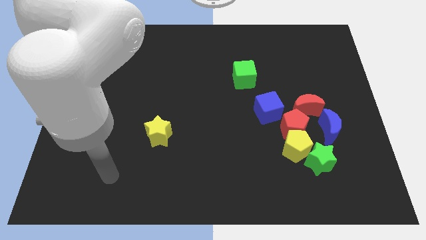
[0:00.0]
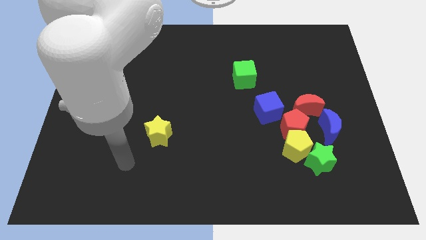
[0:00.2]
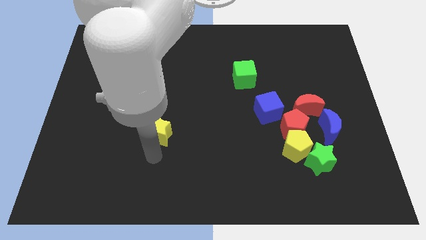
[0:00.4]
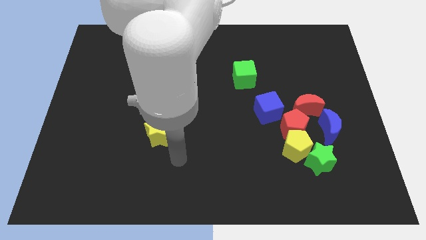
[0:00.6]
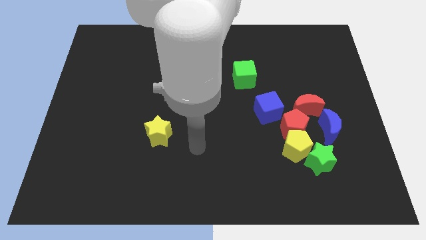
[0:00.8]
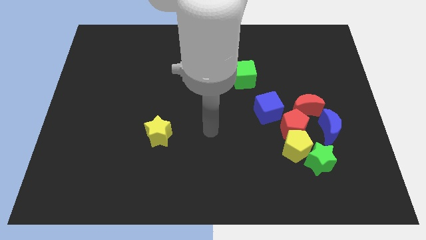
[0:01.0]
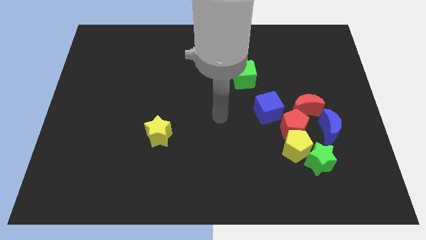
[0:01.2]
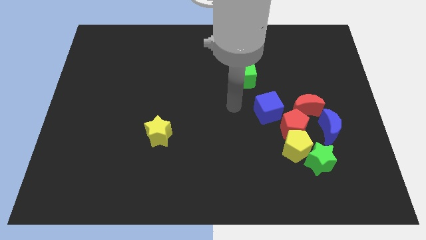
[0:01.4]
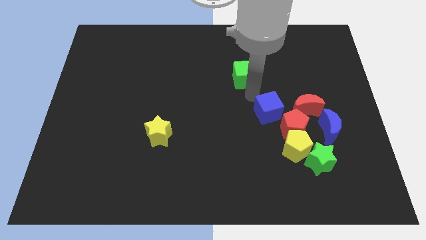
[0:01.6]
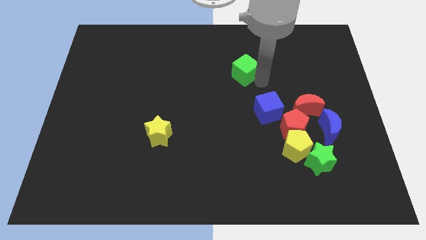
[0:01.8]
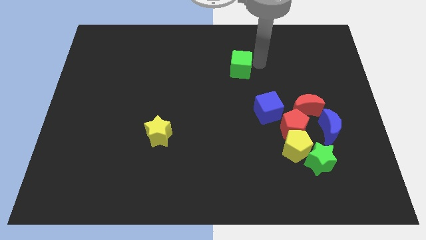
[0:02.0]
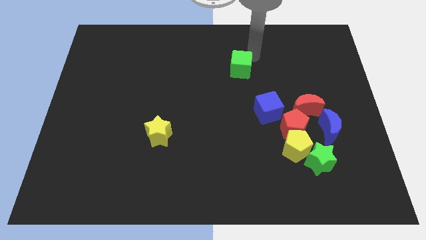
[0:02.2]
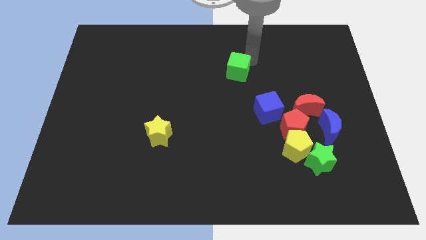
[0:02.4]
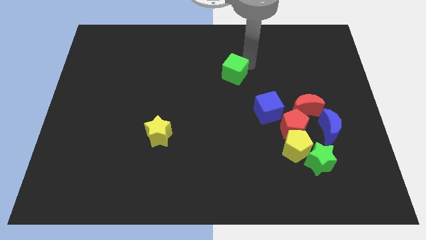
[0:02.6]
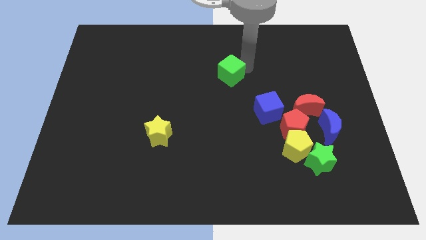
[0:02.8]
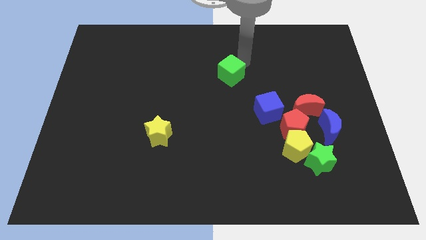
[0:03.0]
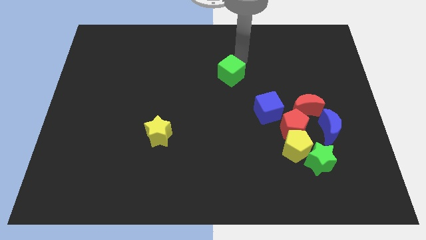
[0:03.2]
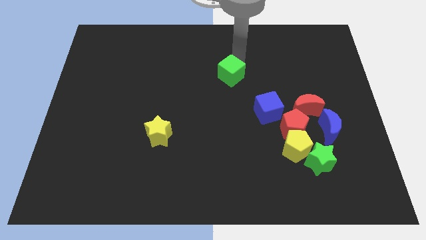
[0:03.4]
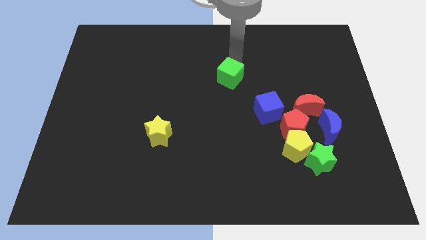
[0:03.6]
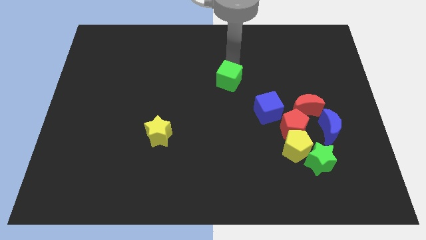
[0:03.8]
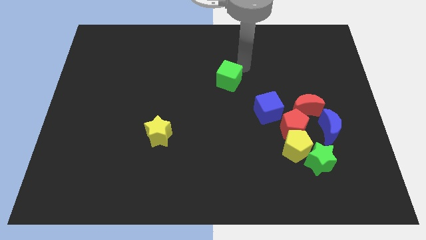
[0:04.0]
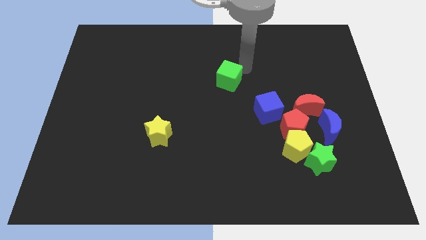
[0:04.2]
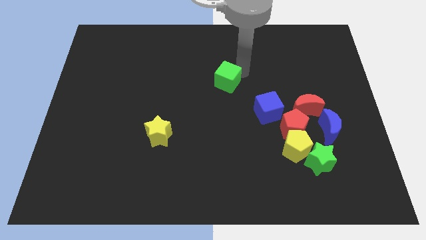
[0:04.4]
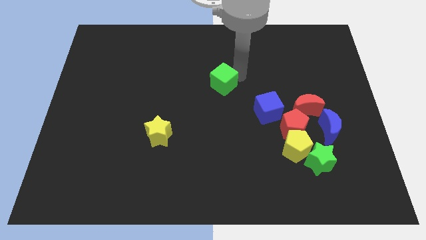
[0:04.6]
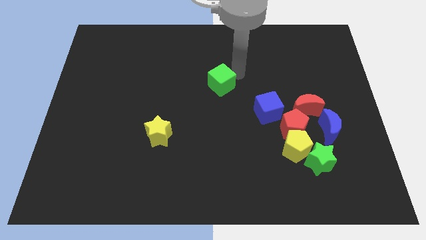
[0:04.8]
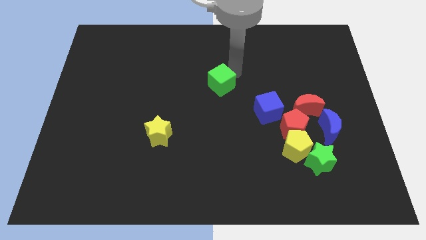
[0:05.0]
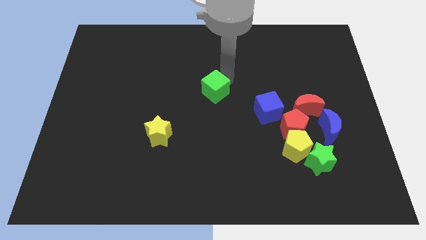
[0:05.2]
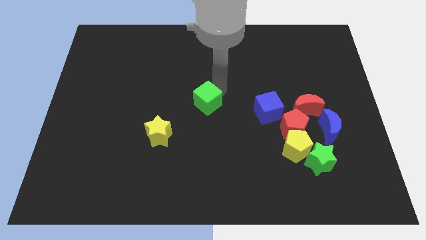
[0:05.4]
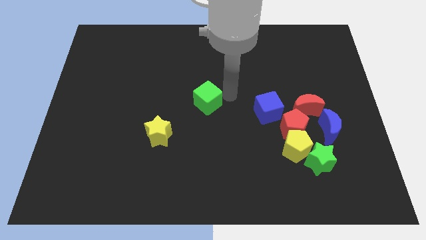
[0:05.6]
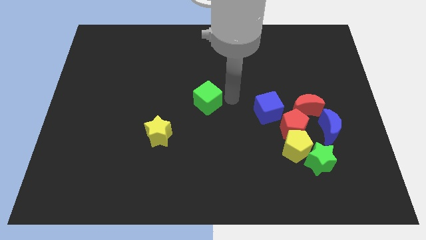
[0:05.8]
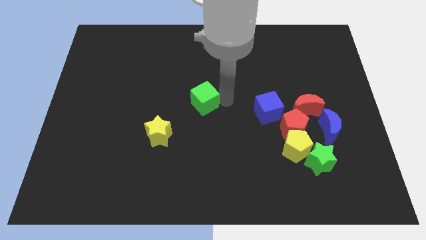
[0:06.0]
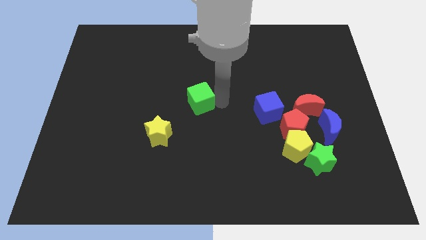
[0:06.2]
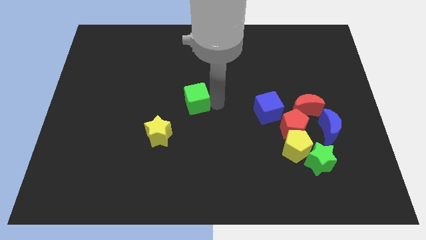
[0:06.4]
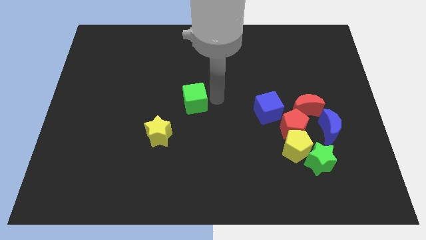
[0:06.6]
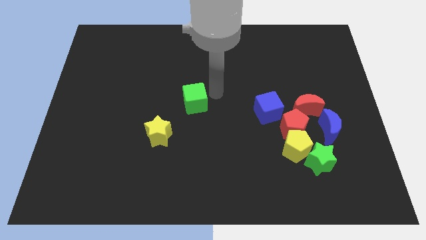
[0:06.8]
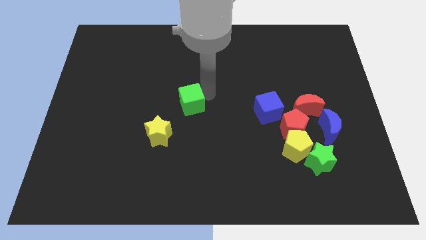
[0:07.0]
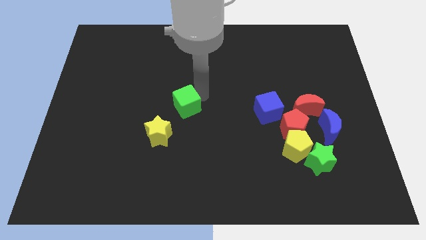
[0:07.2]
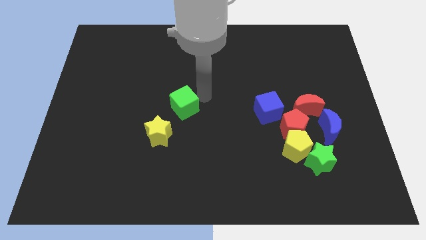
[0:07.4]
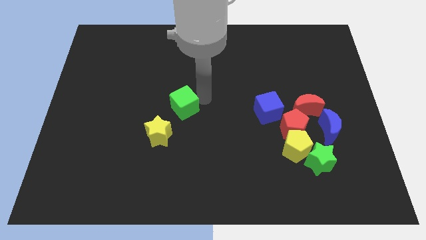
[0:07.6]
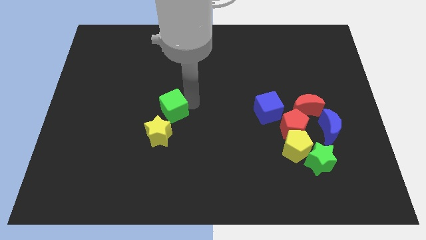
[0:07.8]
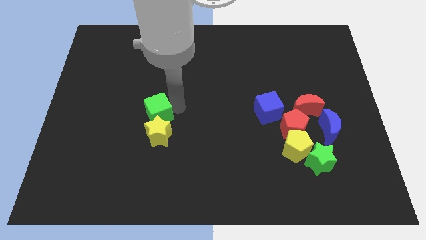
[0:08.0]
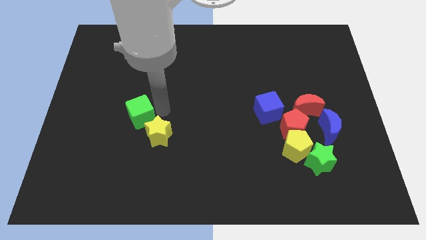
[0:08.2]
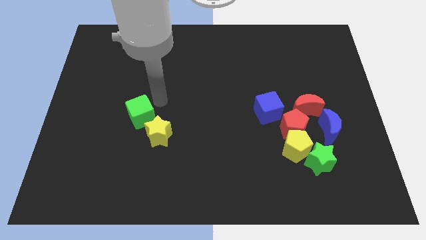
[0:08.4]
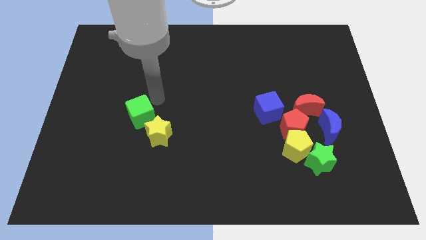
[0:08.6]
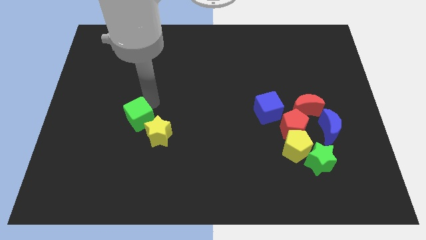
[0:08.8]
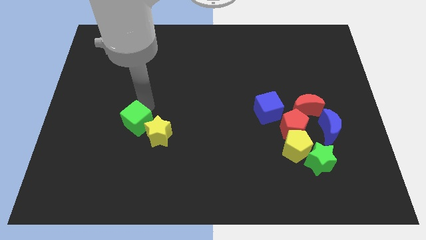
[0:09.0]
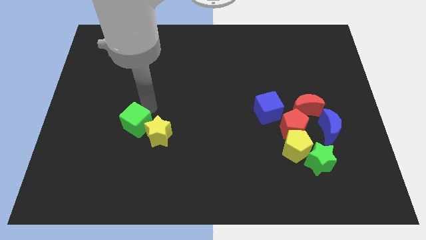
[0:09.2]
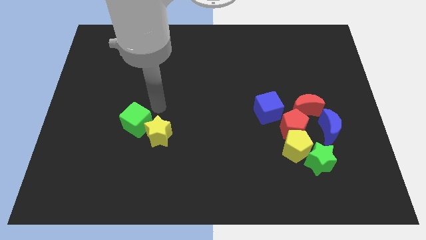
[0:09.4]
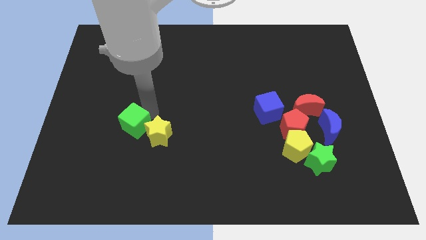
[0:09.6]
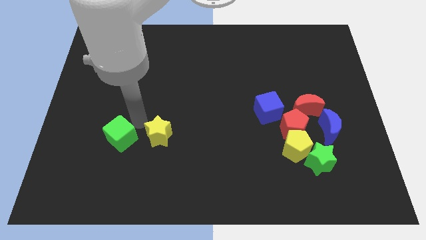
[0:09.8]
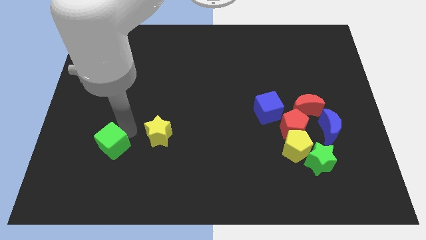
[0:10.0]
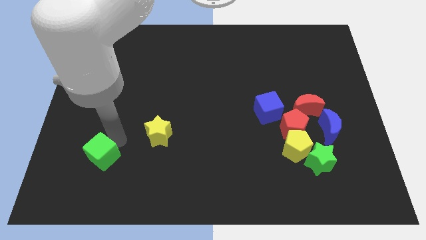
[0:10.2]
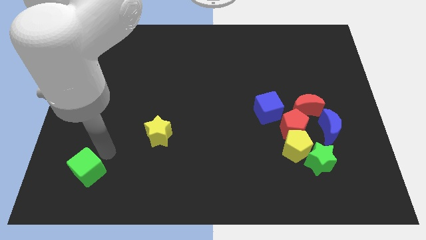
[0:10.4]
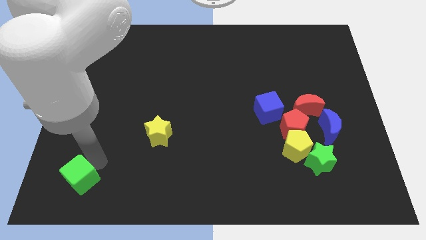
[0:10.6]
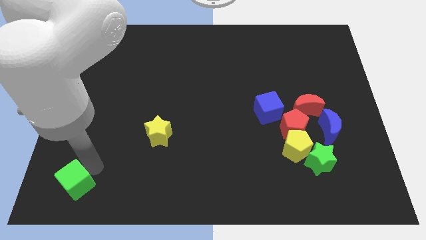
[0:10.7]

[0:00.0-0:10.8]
slide the green cube to the bottom left corner
